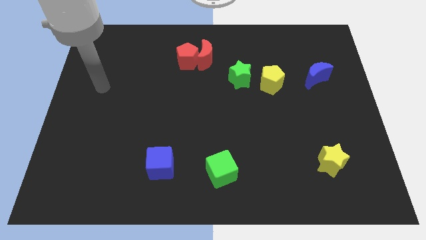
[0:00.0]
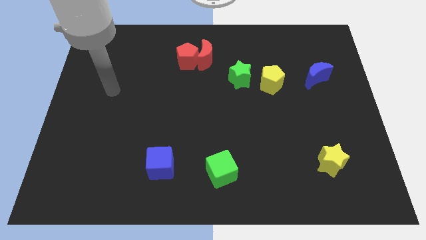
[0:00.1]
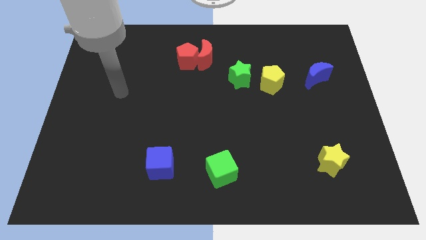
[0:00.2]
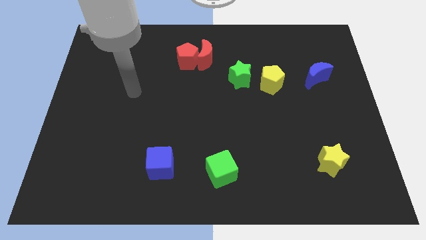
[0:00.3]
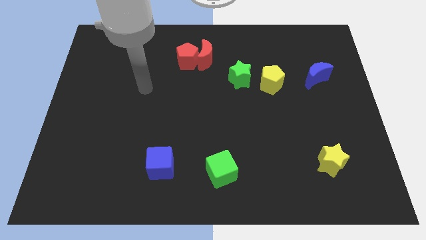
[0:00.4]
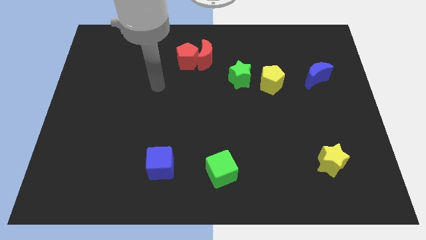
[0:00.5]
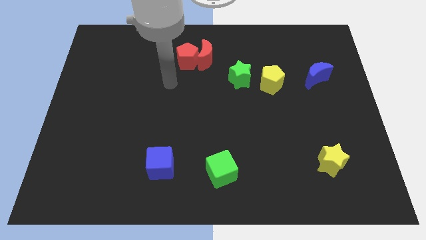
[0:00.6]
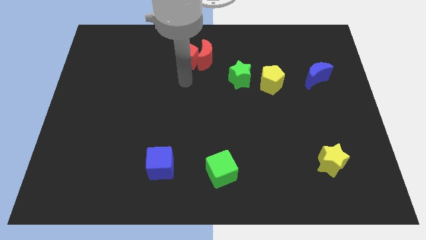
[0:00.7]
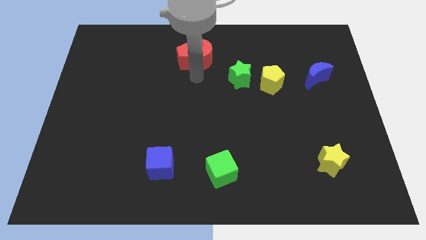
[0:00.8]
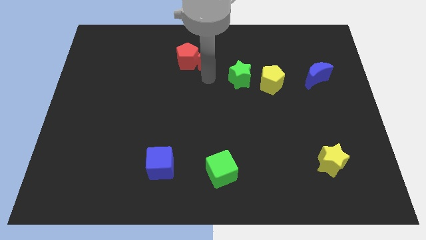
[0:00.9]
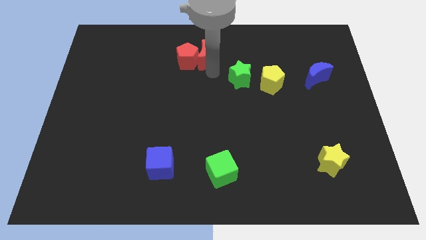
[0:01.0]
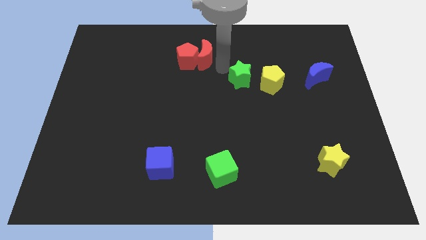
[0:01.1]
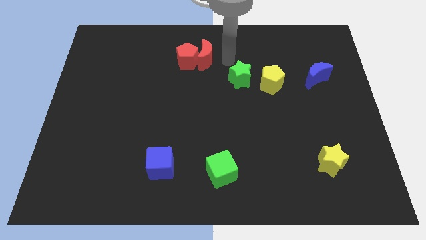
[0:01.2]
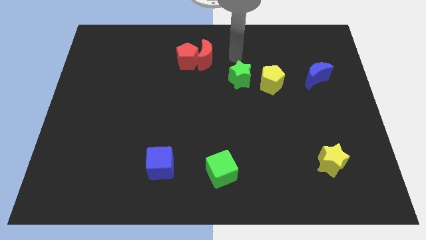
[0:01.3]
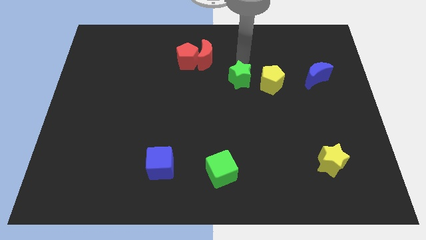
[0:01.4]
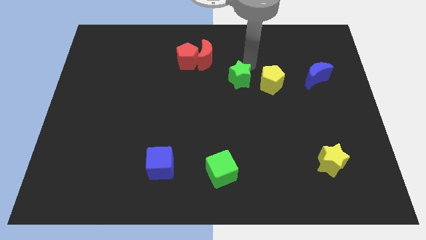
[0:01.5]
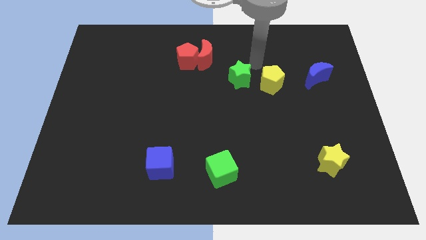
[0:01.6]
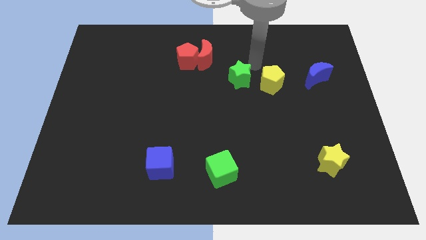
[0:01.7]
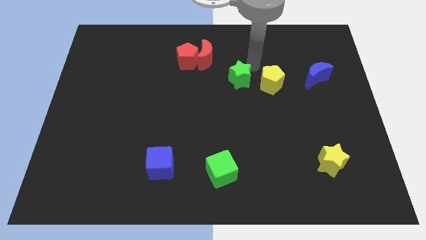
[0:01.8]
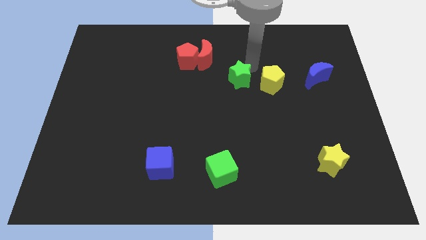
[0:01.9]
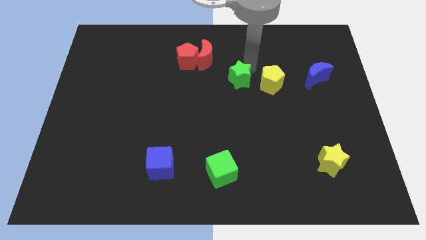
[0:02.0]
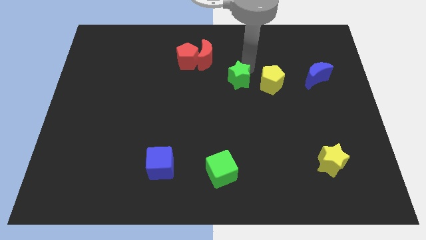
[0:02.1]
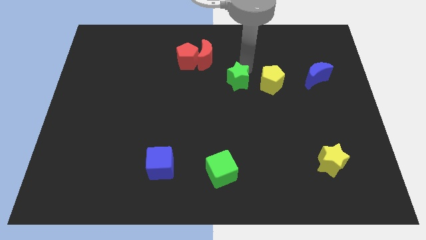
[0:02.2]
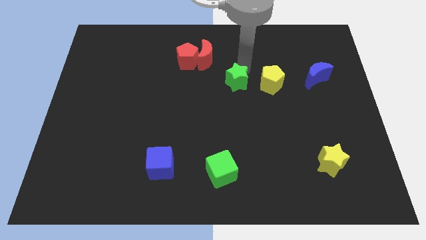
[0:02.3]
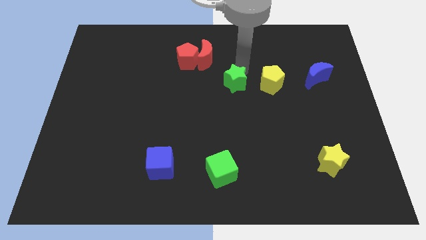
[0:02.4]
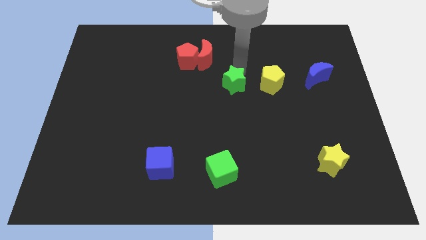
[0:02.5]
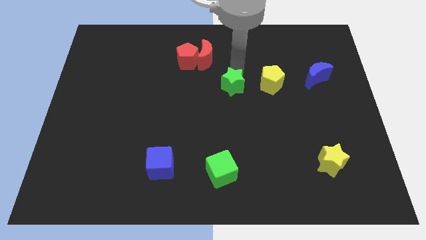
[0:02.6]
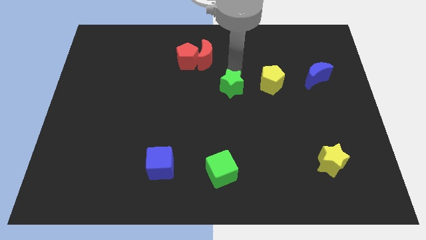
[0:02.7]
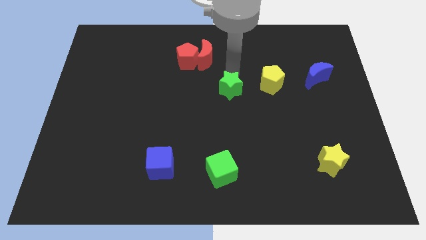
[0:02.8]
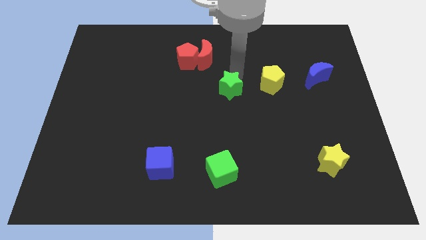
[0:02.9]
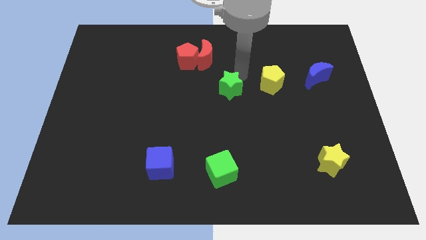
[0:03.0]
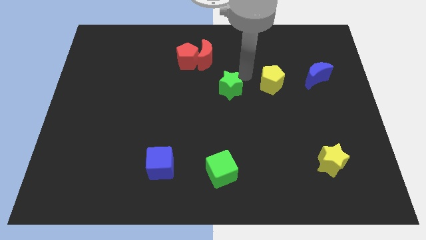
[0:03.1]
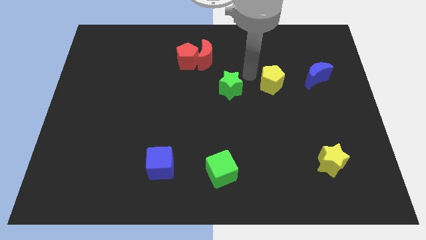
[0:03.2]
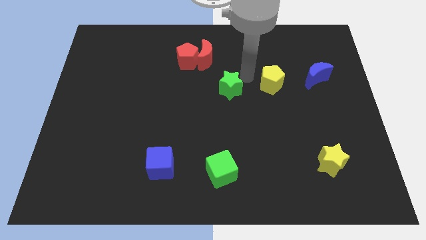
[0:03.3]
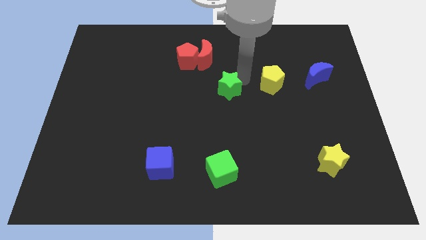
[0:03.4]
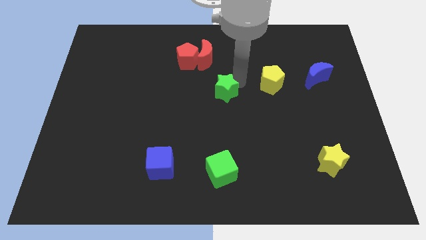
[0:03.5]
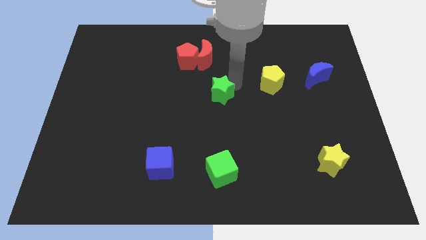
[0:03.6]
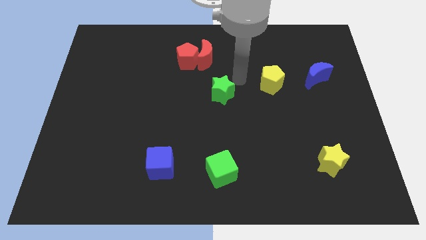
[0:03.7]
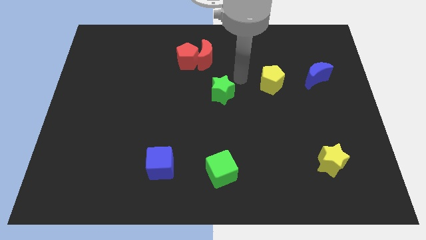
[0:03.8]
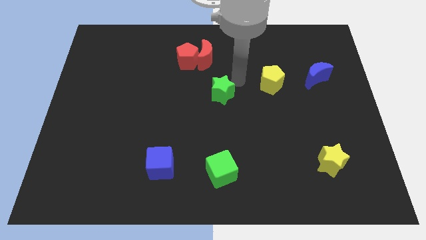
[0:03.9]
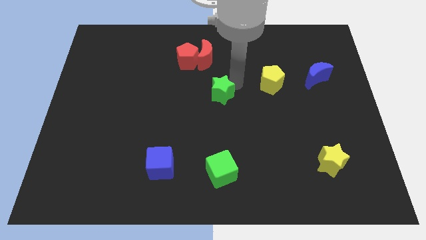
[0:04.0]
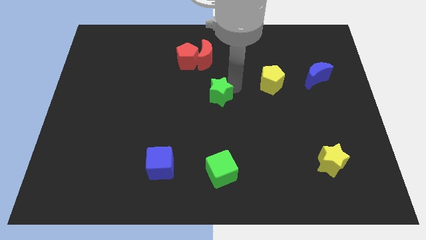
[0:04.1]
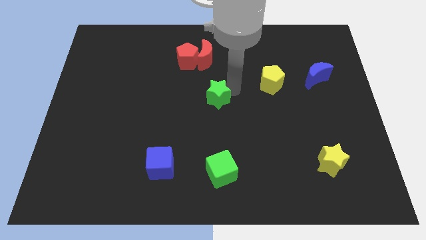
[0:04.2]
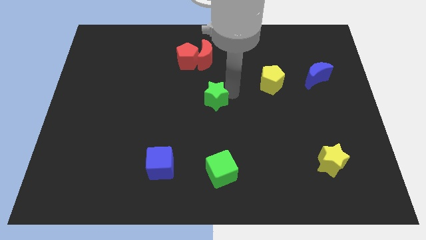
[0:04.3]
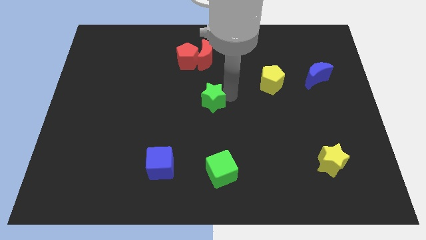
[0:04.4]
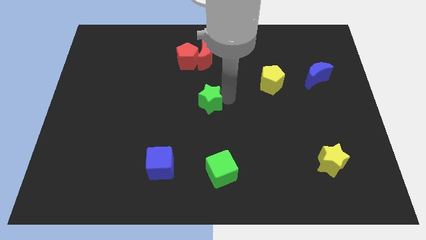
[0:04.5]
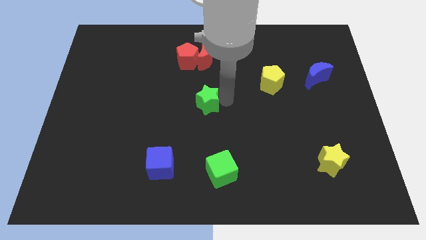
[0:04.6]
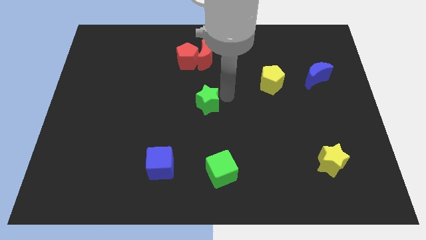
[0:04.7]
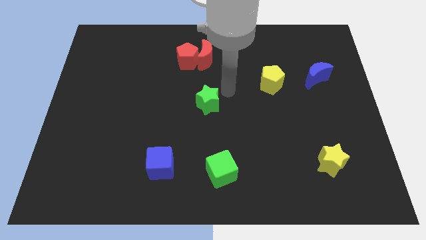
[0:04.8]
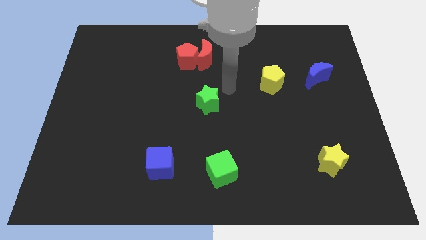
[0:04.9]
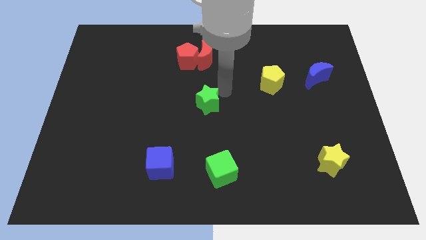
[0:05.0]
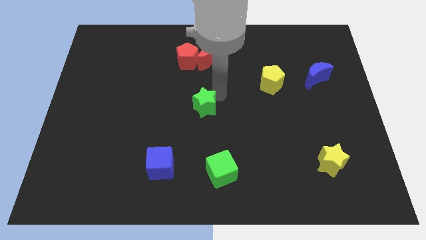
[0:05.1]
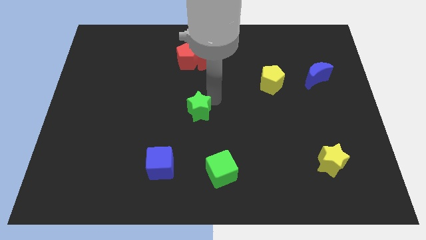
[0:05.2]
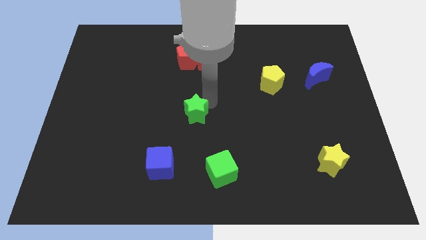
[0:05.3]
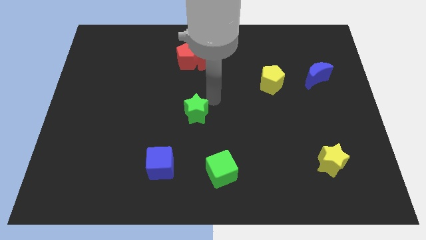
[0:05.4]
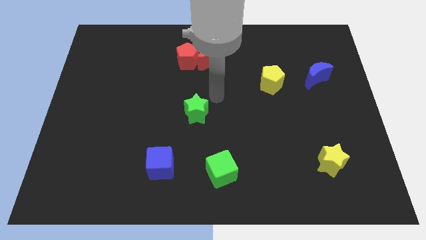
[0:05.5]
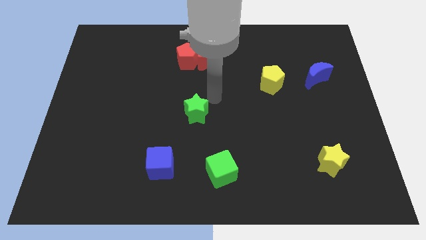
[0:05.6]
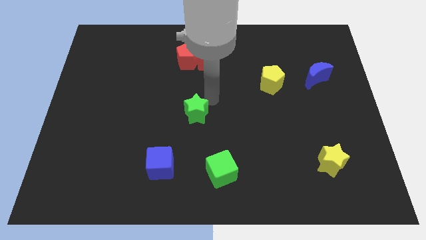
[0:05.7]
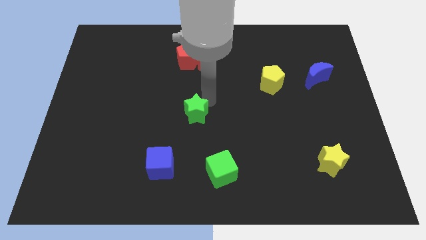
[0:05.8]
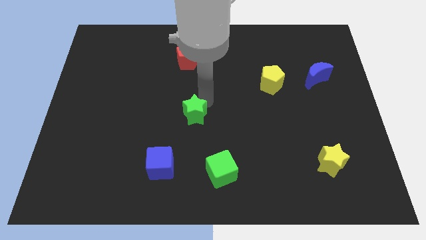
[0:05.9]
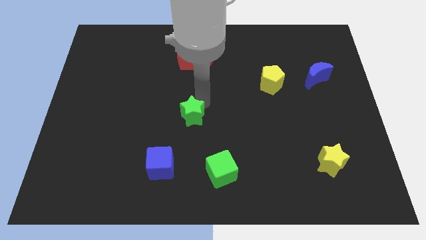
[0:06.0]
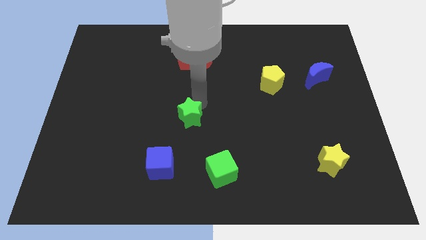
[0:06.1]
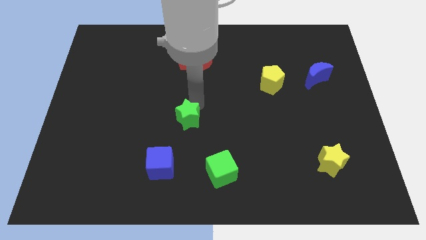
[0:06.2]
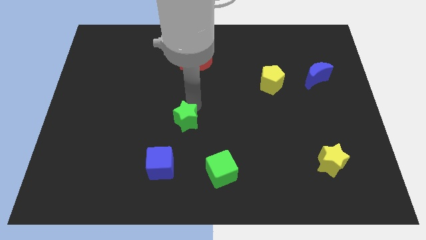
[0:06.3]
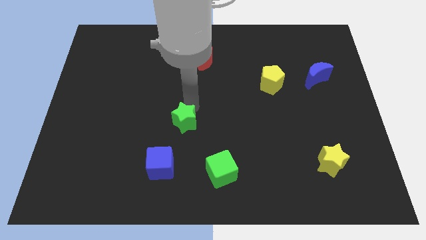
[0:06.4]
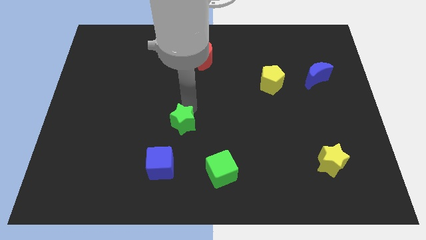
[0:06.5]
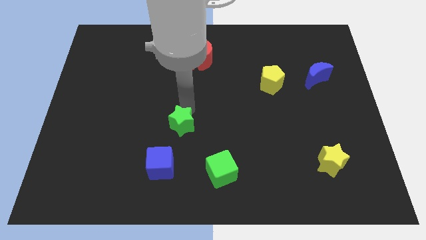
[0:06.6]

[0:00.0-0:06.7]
move the green star downwards and to the left diagonally

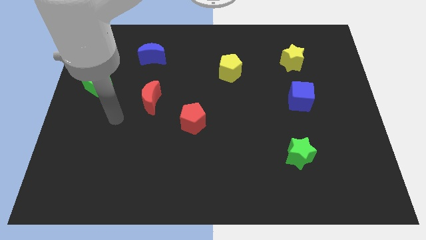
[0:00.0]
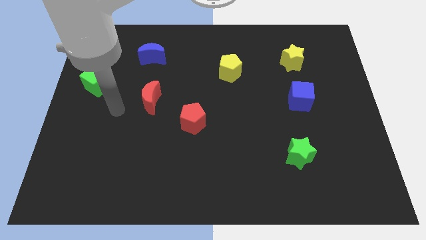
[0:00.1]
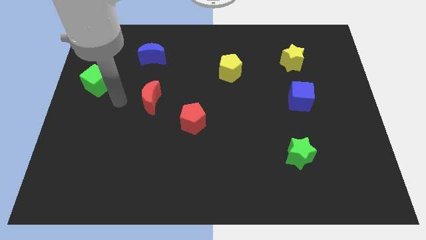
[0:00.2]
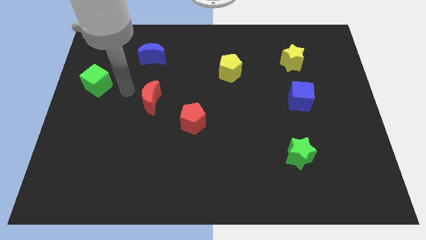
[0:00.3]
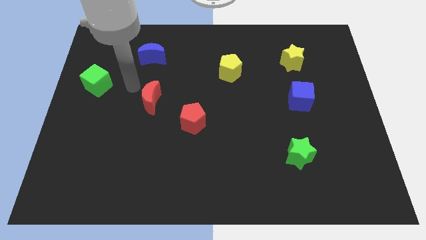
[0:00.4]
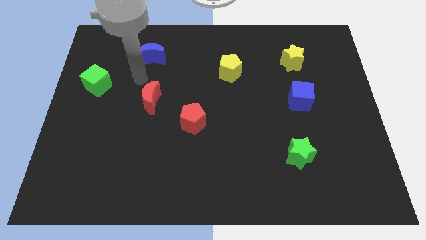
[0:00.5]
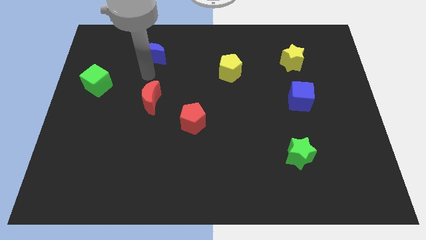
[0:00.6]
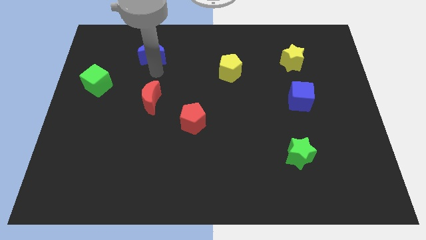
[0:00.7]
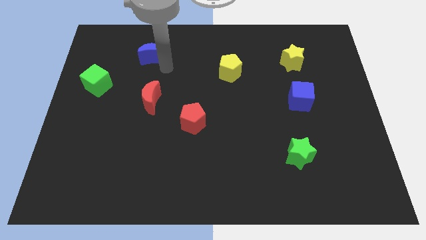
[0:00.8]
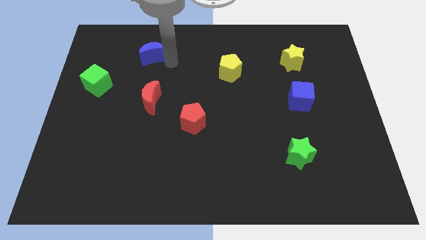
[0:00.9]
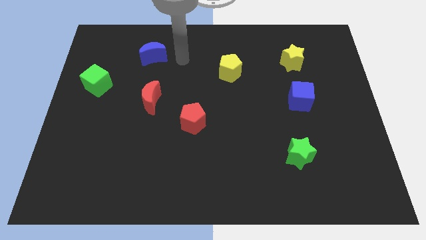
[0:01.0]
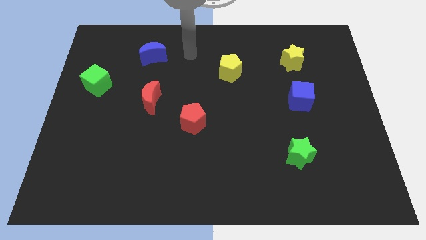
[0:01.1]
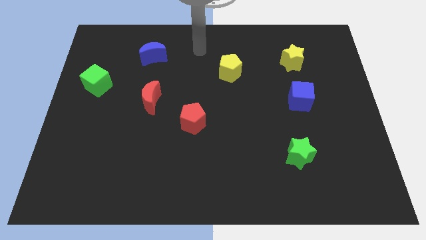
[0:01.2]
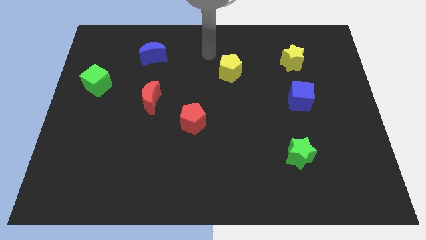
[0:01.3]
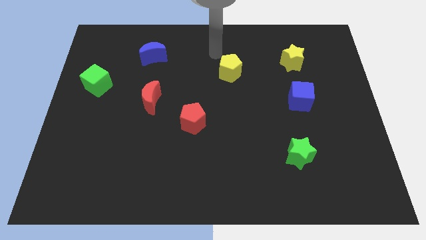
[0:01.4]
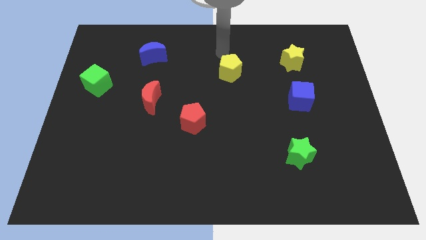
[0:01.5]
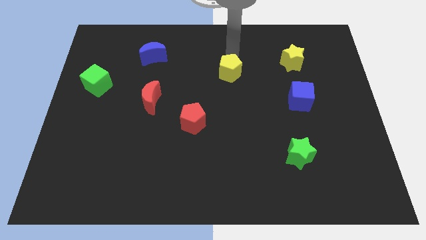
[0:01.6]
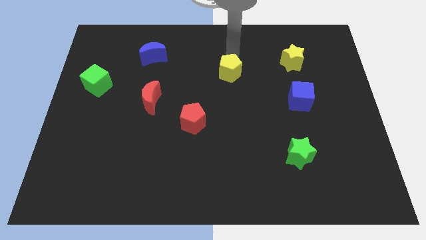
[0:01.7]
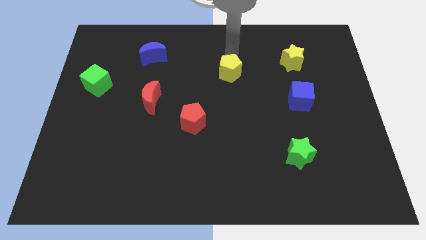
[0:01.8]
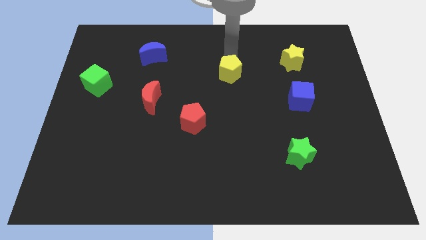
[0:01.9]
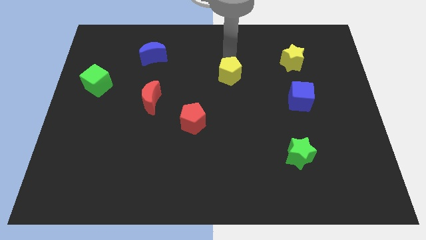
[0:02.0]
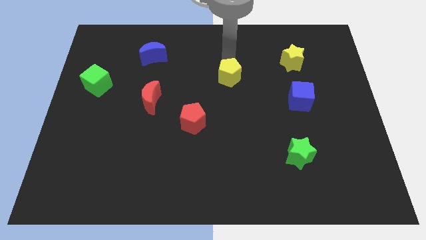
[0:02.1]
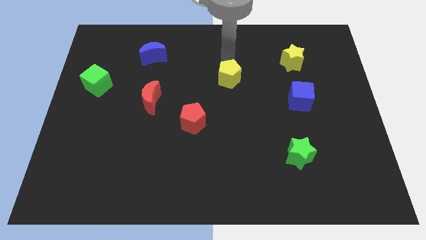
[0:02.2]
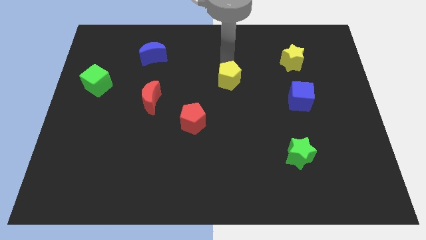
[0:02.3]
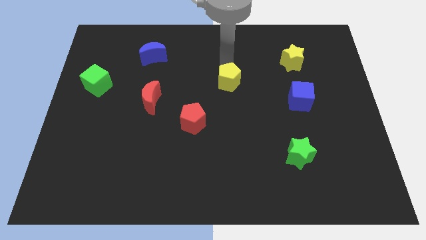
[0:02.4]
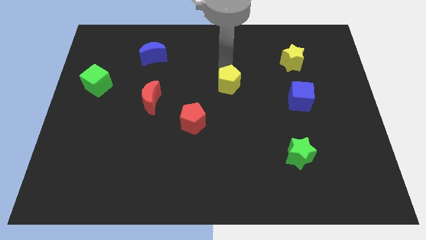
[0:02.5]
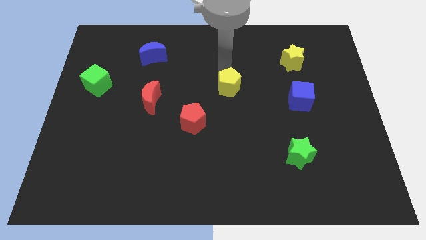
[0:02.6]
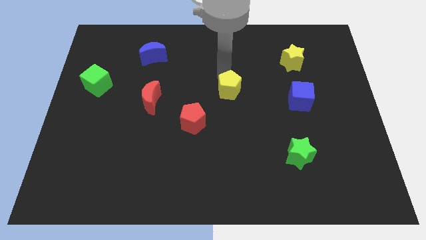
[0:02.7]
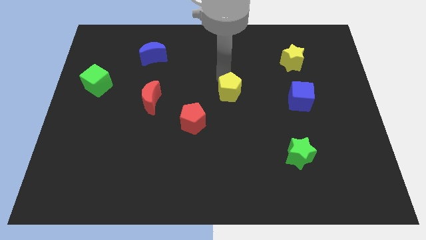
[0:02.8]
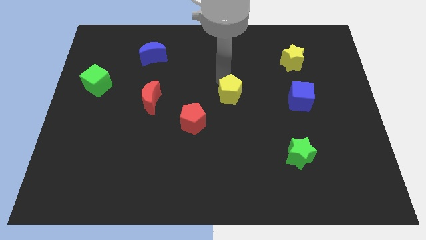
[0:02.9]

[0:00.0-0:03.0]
move the yellow pentagon downwards slightly
